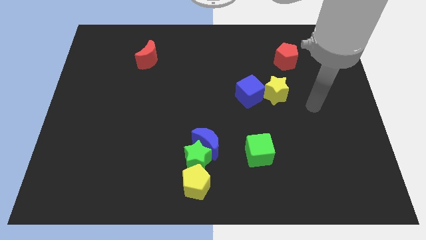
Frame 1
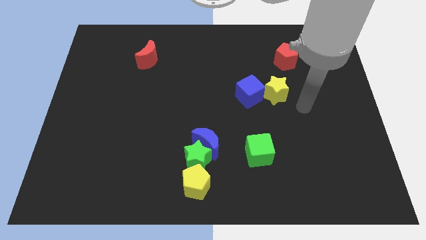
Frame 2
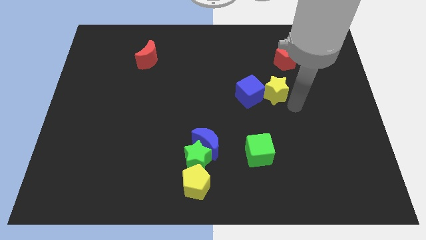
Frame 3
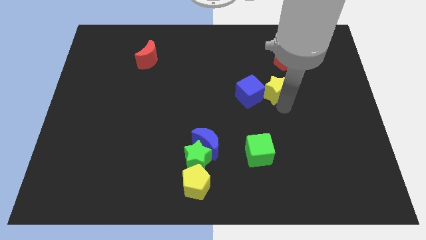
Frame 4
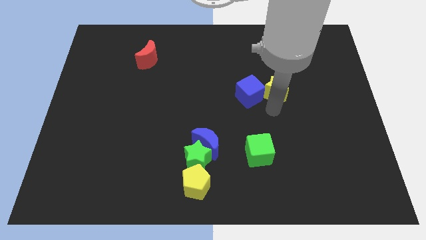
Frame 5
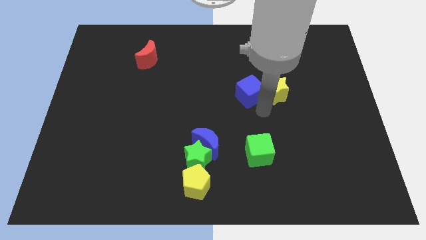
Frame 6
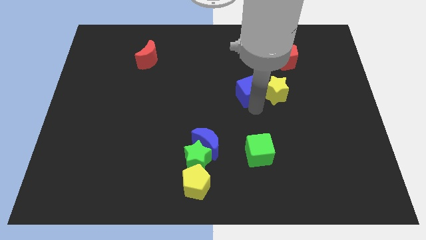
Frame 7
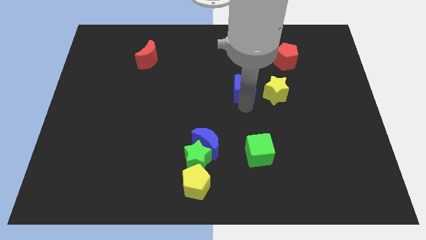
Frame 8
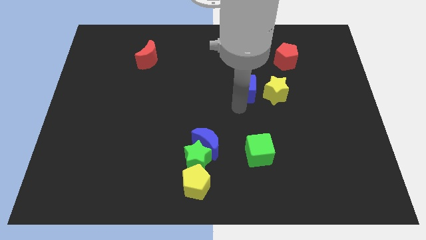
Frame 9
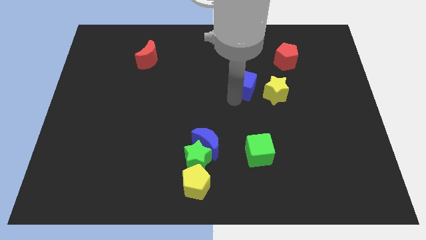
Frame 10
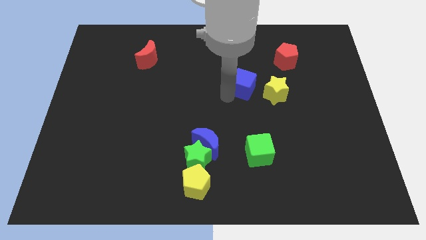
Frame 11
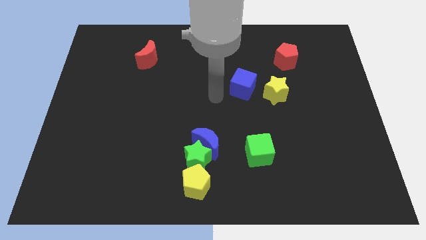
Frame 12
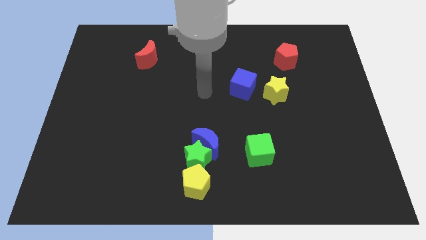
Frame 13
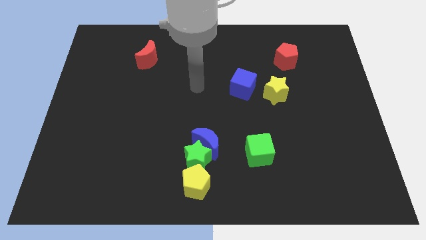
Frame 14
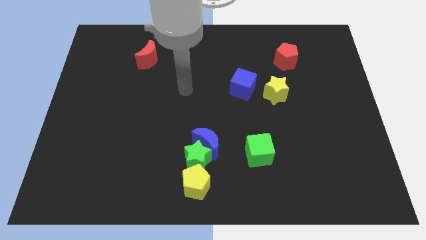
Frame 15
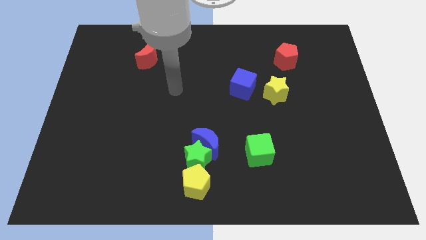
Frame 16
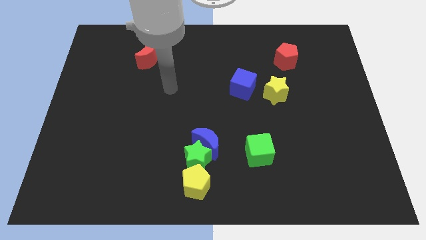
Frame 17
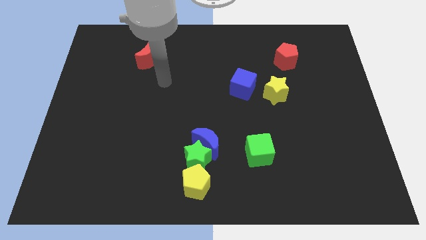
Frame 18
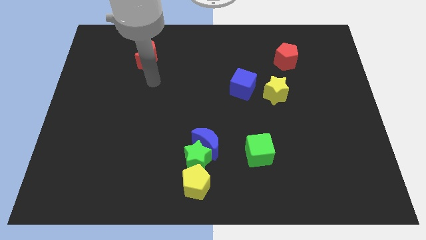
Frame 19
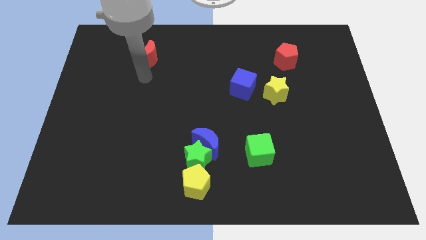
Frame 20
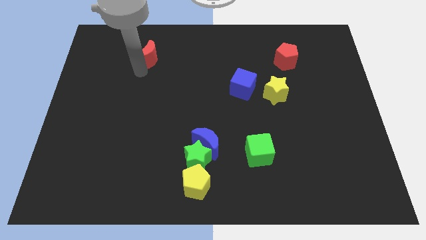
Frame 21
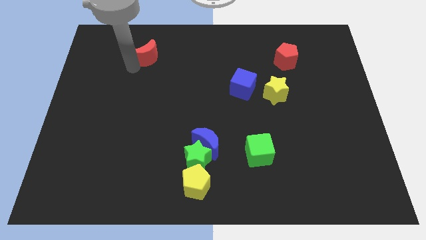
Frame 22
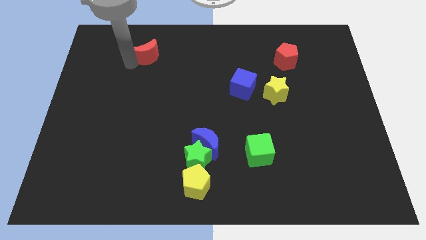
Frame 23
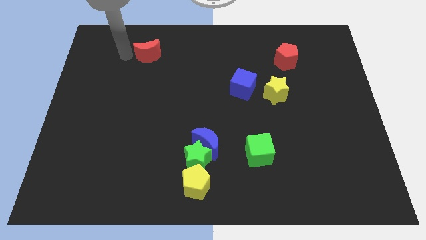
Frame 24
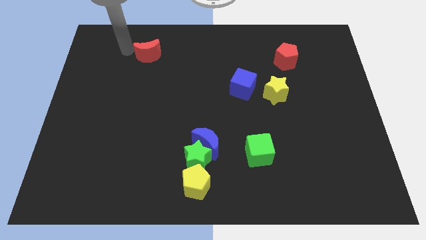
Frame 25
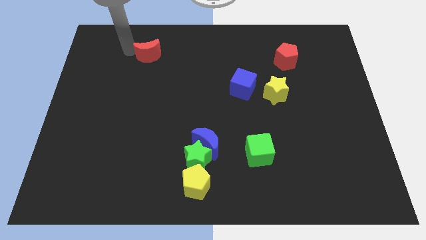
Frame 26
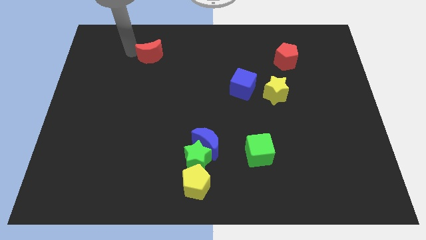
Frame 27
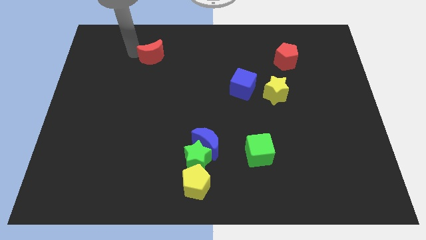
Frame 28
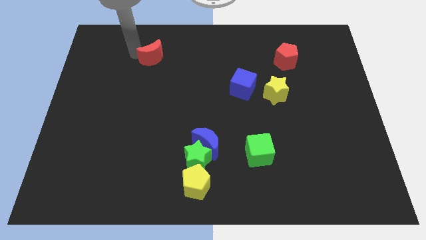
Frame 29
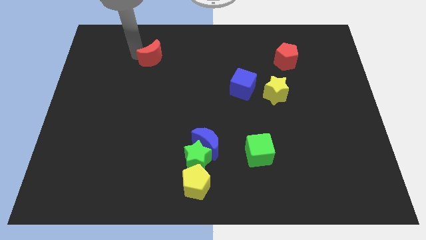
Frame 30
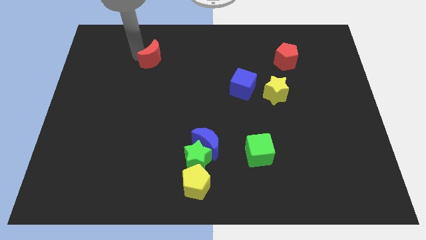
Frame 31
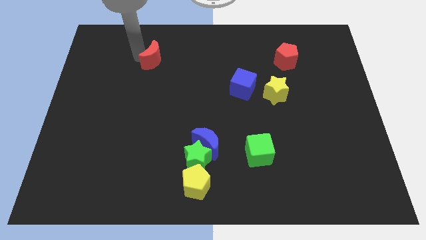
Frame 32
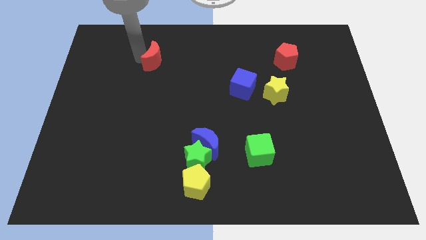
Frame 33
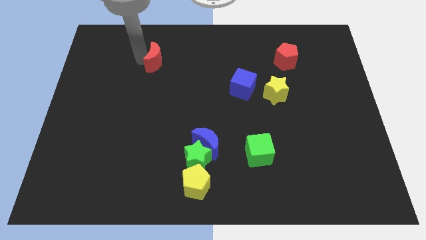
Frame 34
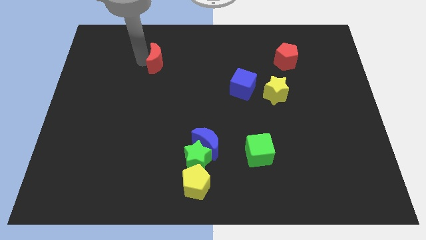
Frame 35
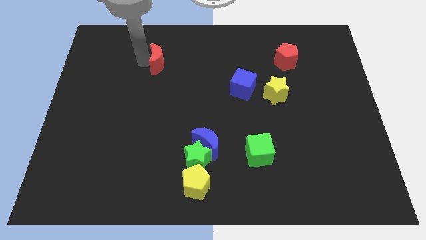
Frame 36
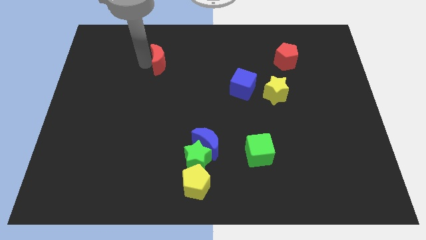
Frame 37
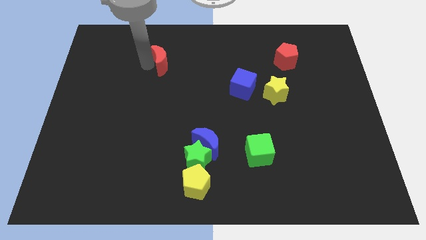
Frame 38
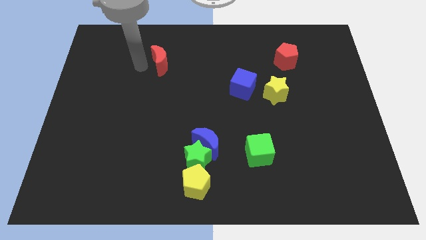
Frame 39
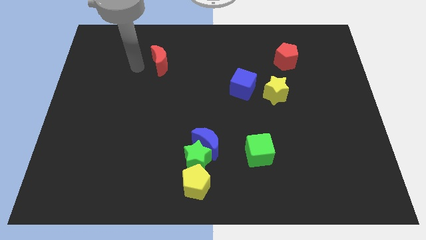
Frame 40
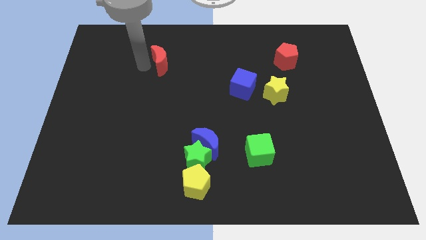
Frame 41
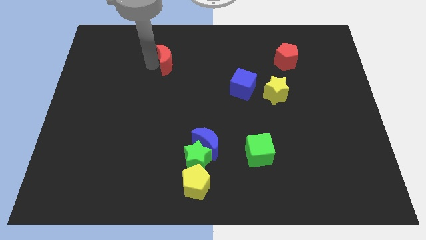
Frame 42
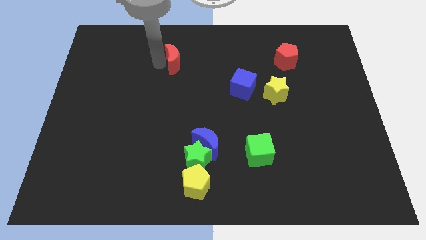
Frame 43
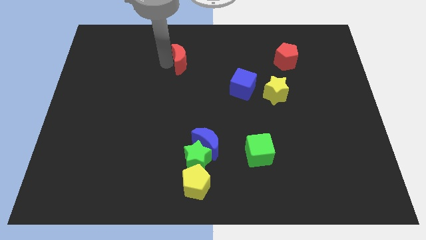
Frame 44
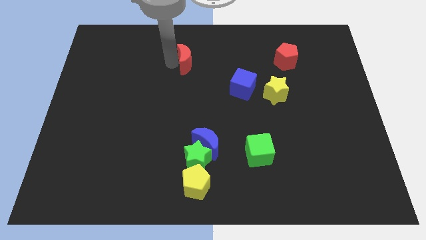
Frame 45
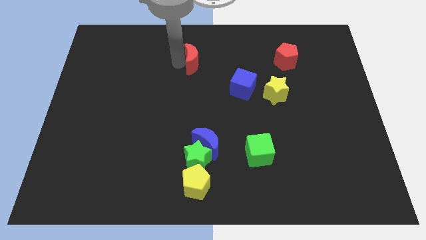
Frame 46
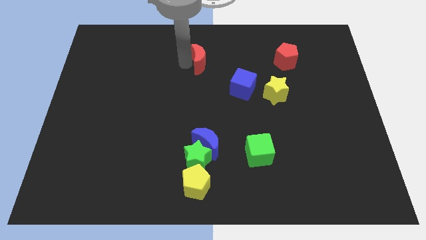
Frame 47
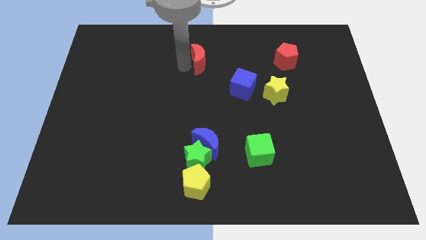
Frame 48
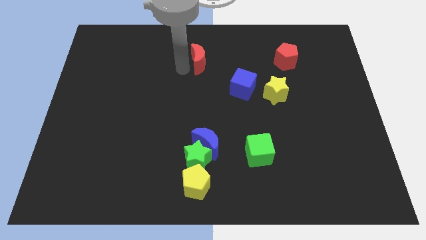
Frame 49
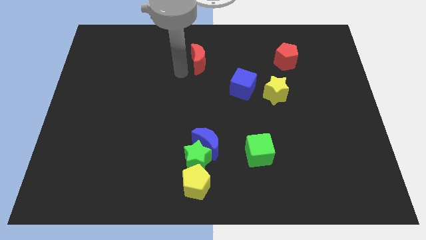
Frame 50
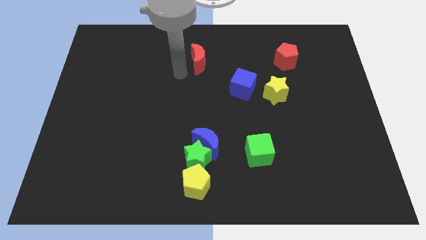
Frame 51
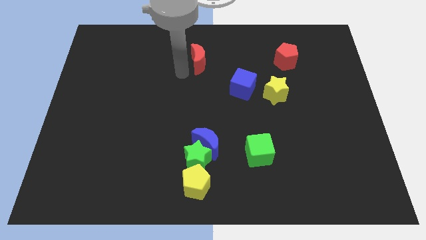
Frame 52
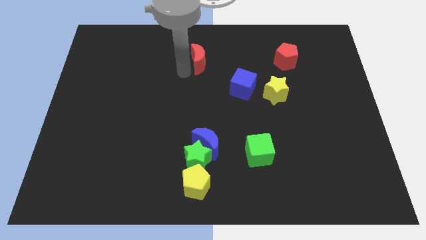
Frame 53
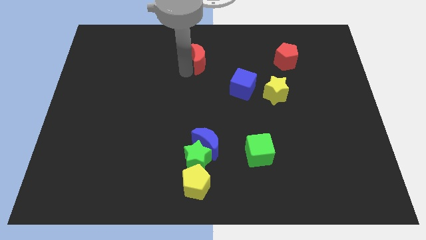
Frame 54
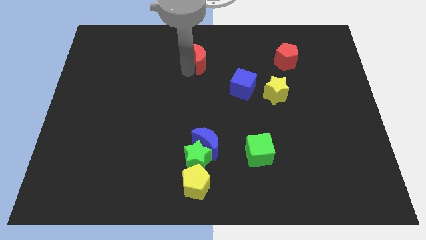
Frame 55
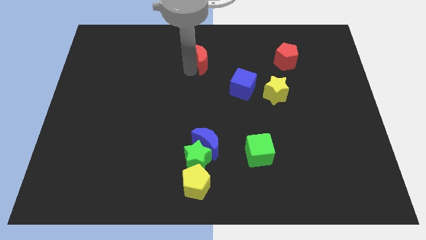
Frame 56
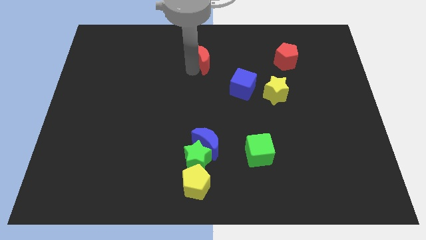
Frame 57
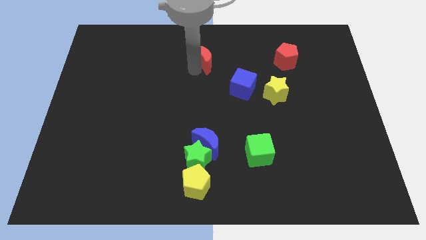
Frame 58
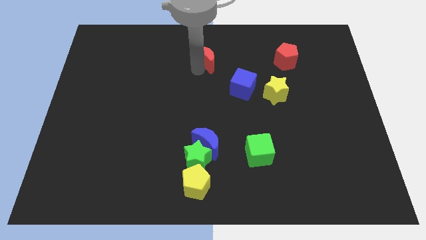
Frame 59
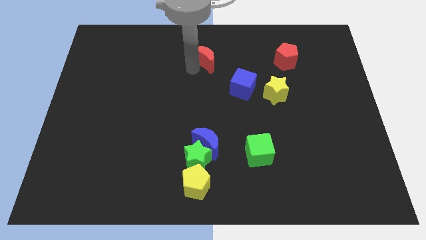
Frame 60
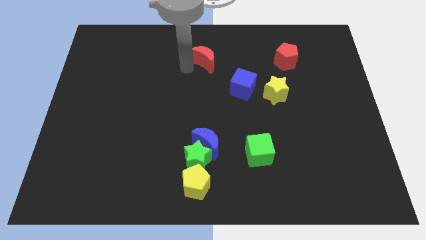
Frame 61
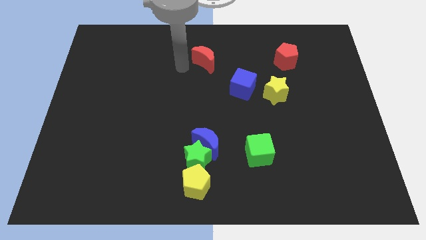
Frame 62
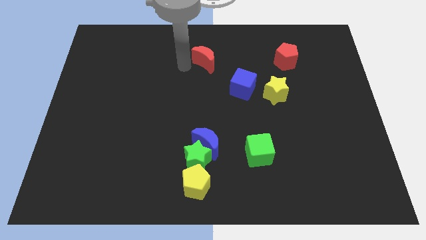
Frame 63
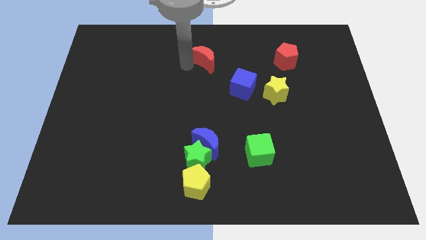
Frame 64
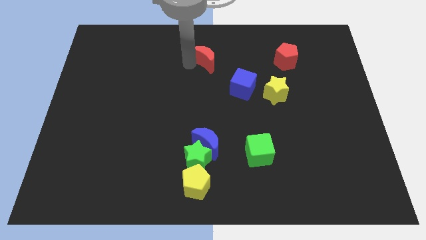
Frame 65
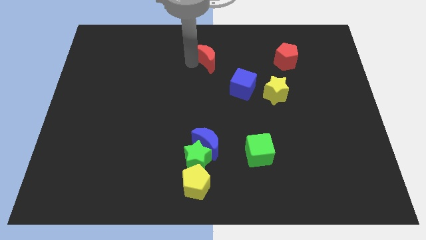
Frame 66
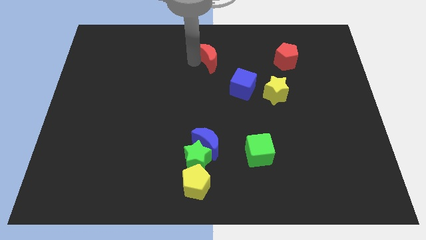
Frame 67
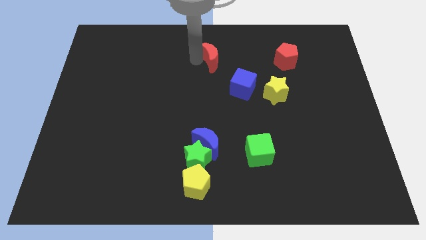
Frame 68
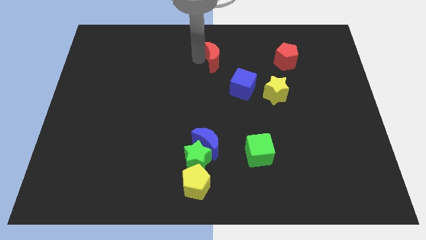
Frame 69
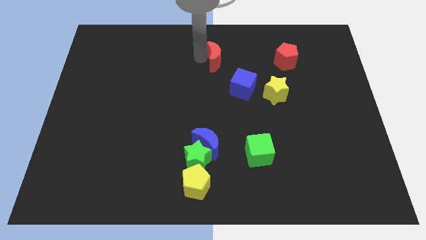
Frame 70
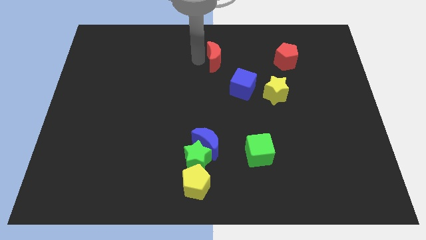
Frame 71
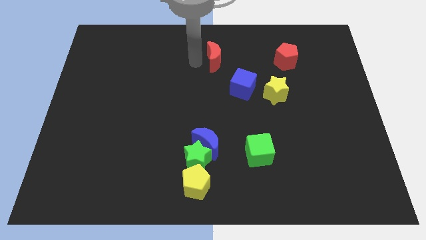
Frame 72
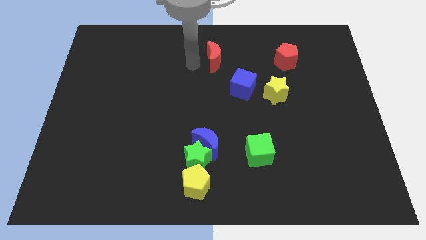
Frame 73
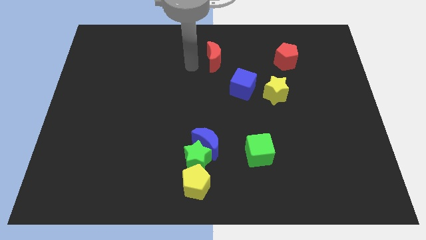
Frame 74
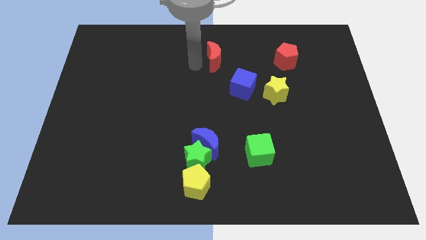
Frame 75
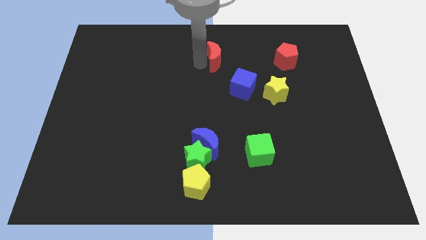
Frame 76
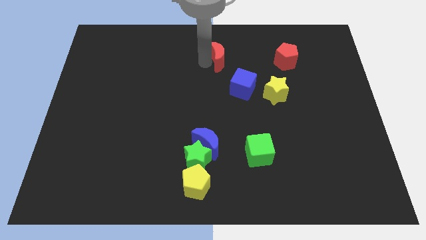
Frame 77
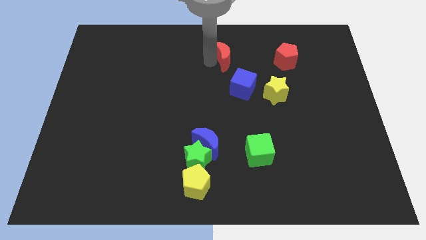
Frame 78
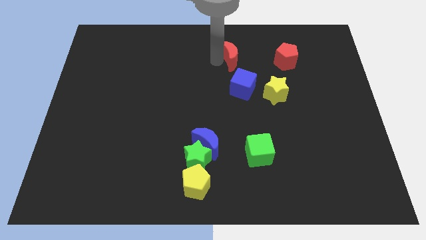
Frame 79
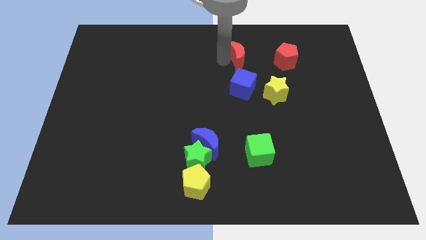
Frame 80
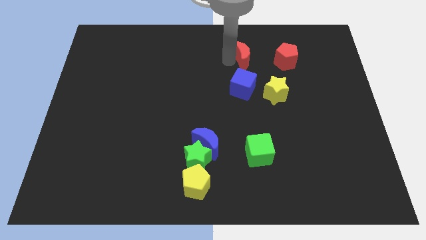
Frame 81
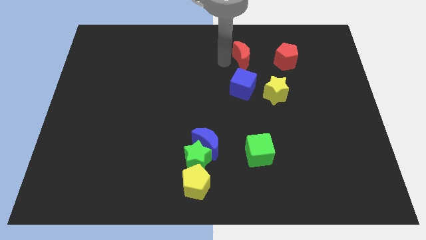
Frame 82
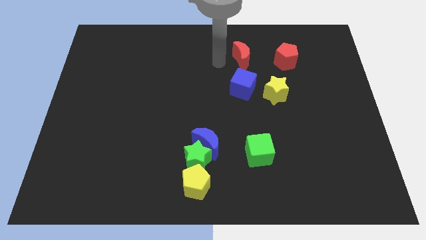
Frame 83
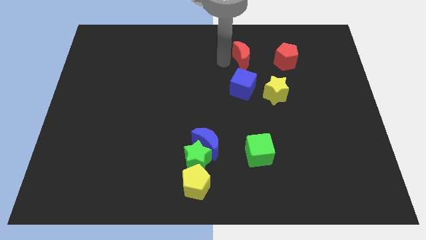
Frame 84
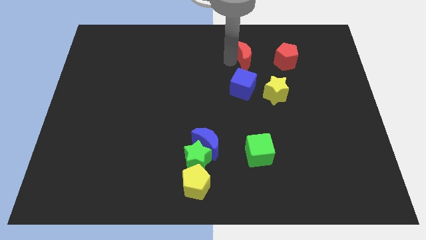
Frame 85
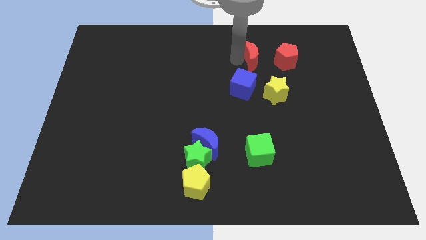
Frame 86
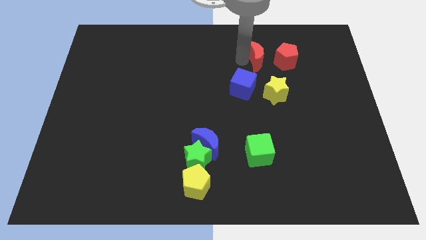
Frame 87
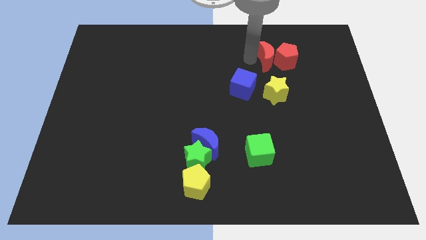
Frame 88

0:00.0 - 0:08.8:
put the red moon close to the red pentagon
